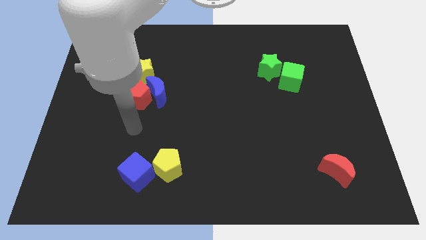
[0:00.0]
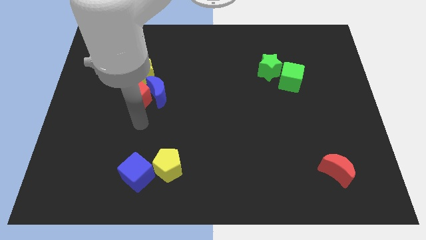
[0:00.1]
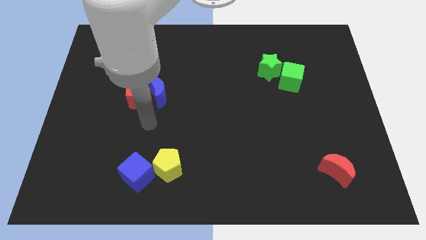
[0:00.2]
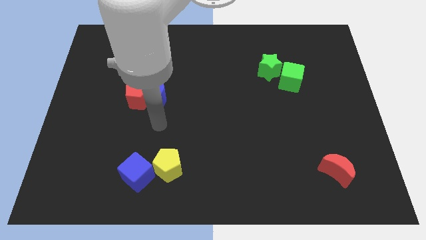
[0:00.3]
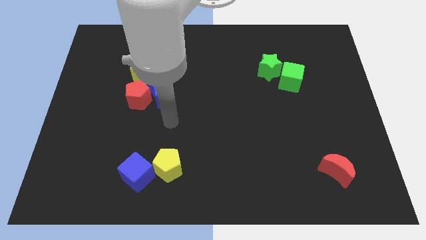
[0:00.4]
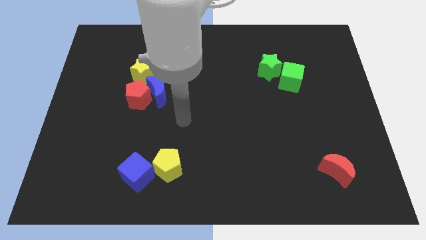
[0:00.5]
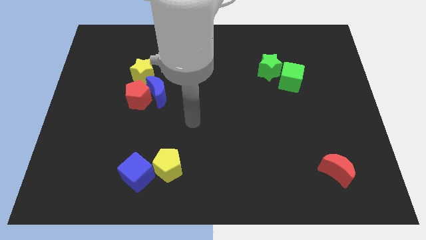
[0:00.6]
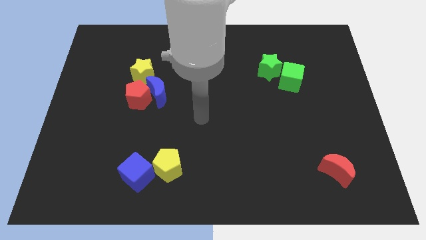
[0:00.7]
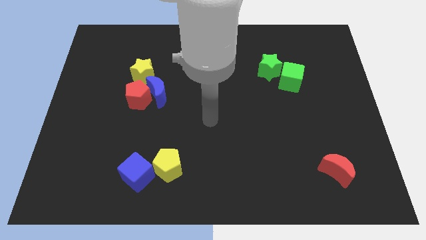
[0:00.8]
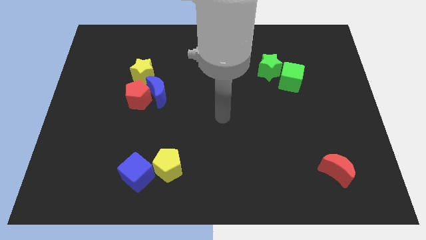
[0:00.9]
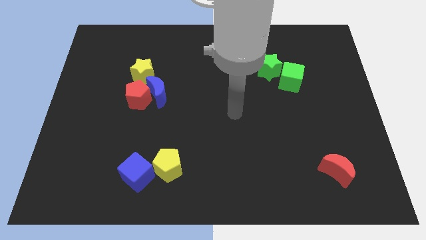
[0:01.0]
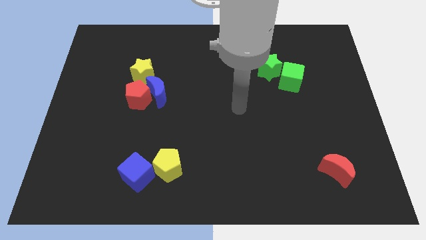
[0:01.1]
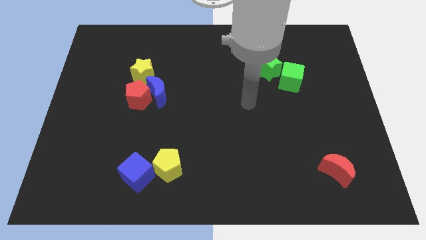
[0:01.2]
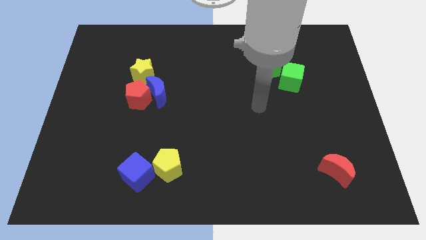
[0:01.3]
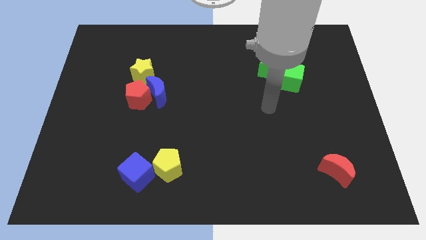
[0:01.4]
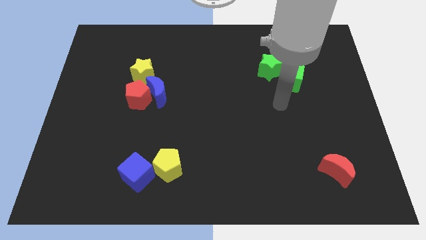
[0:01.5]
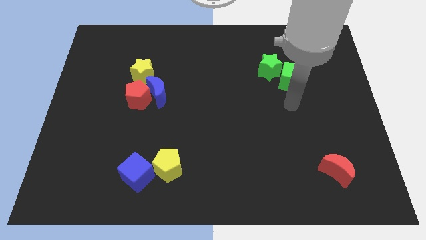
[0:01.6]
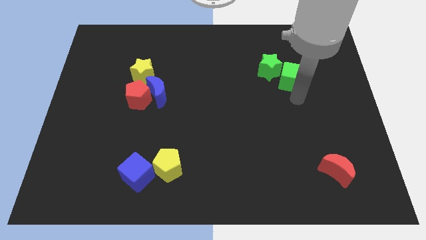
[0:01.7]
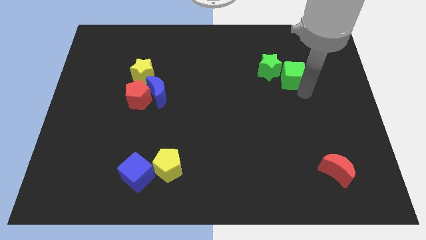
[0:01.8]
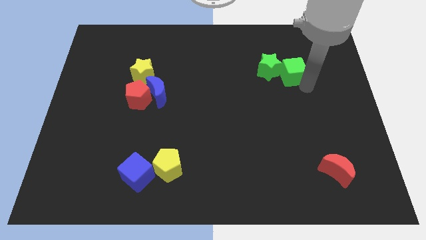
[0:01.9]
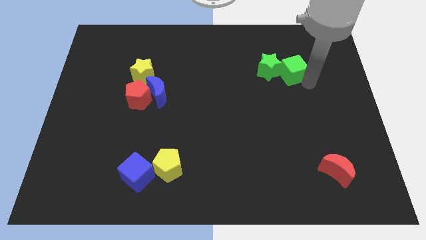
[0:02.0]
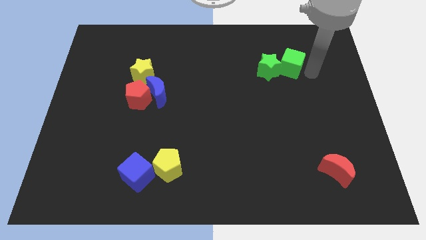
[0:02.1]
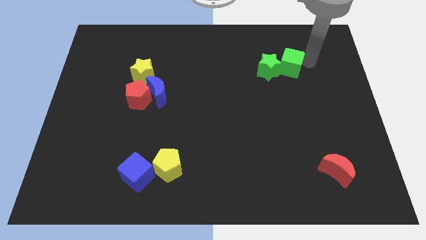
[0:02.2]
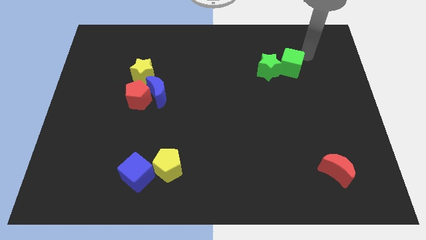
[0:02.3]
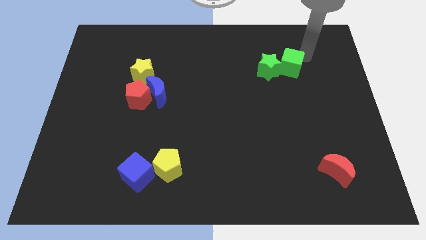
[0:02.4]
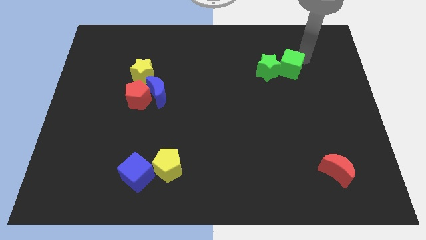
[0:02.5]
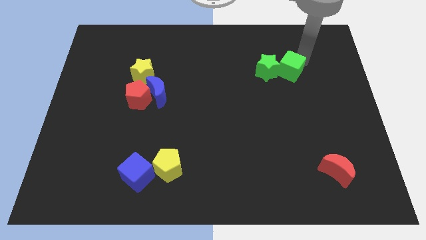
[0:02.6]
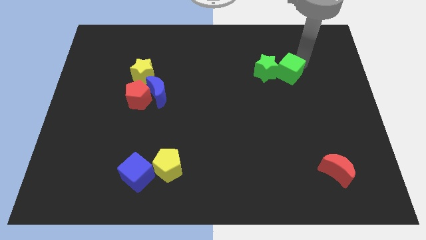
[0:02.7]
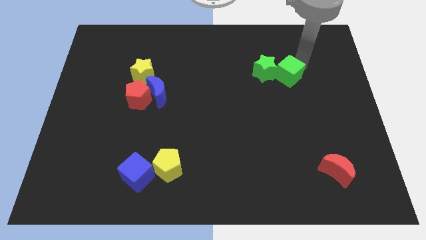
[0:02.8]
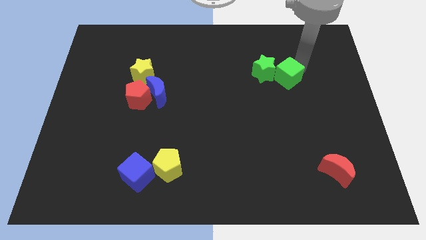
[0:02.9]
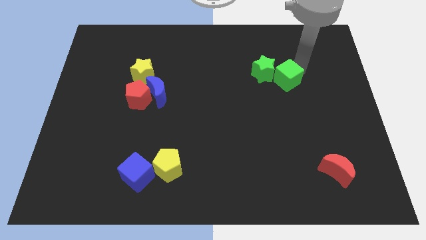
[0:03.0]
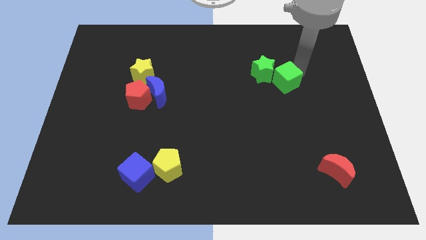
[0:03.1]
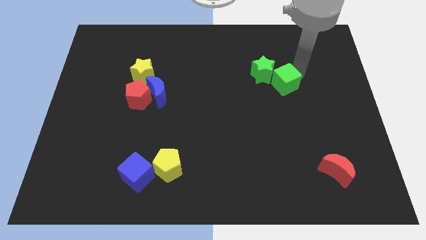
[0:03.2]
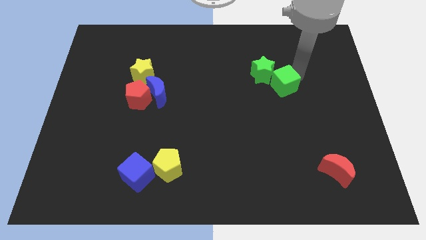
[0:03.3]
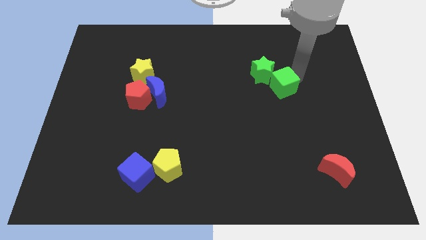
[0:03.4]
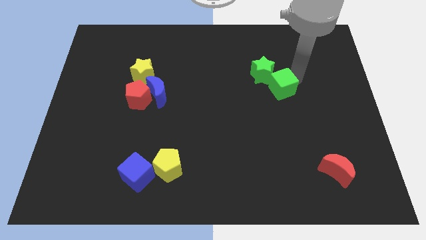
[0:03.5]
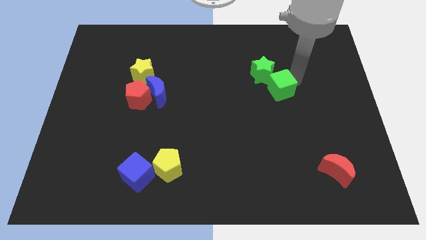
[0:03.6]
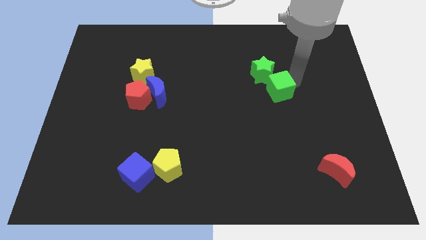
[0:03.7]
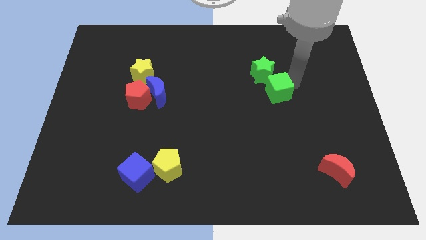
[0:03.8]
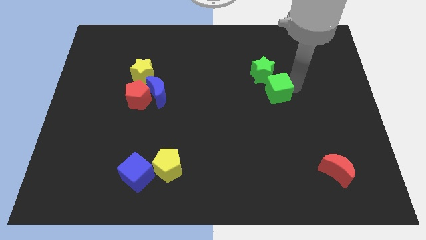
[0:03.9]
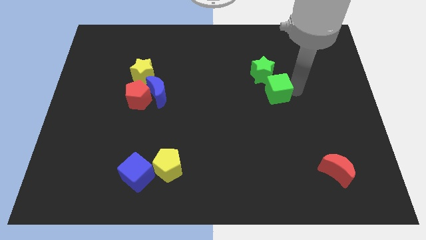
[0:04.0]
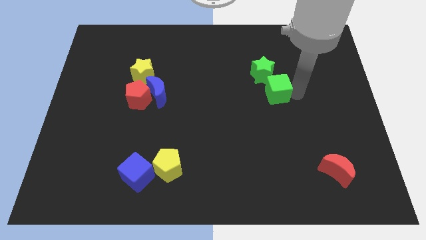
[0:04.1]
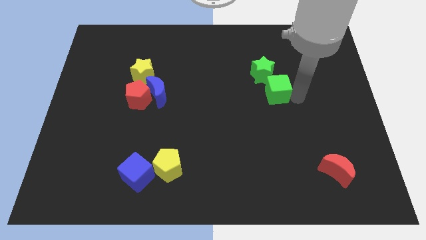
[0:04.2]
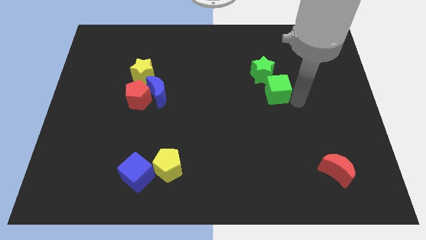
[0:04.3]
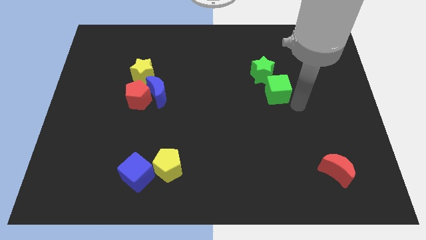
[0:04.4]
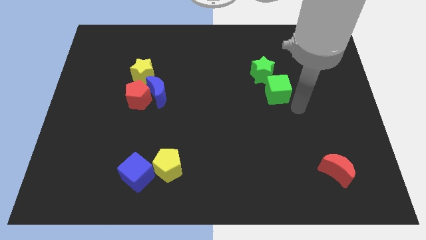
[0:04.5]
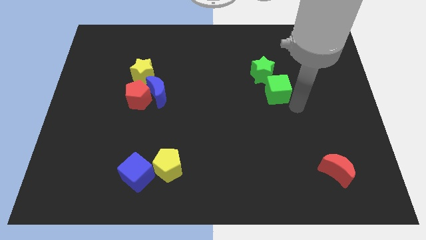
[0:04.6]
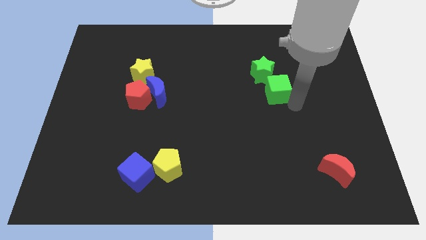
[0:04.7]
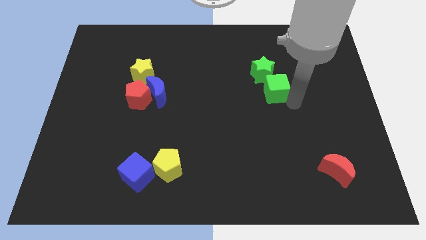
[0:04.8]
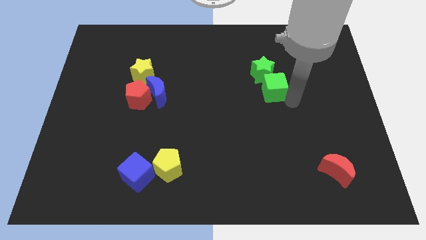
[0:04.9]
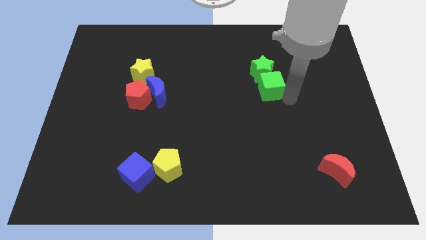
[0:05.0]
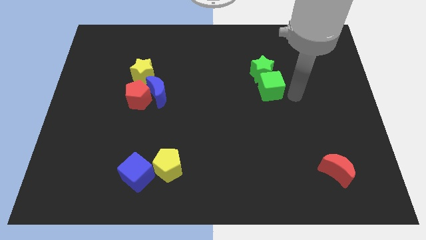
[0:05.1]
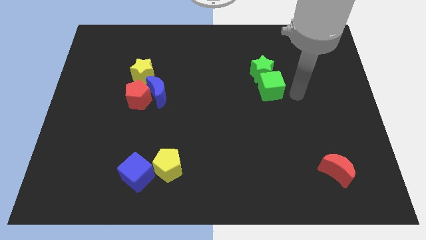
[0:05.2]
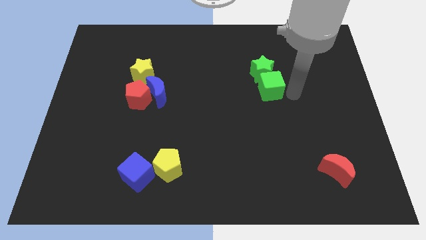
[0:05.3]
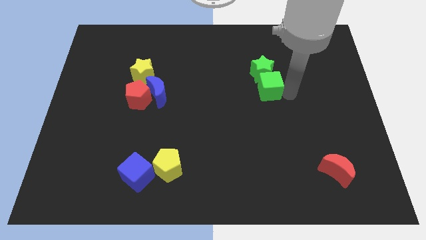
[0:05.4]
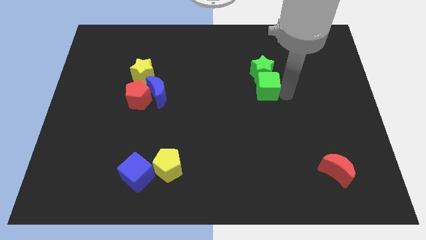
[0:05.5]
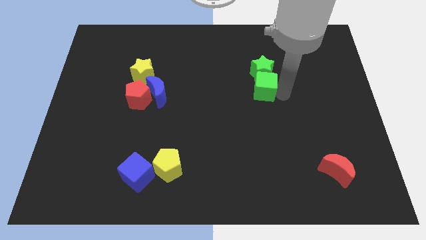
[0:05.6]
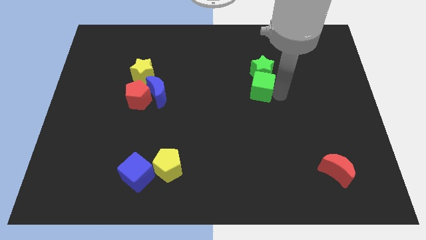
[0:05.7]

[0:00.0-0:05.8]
slightly push the green cube to the left

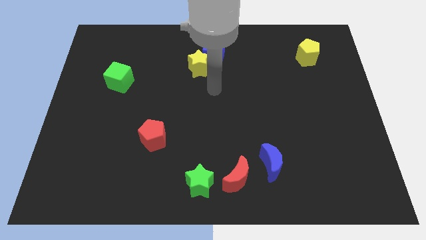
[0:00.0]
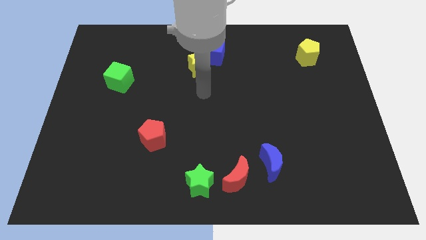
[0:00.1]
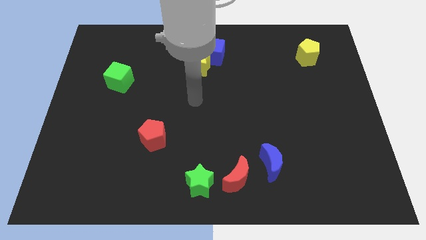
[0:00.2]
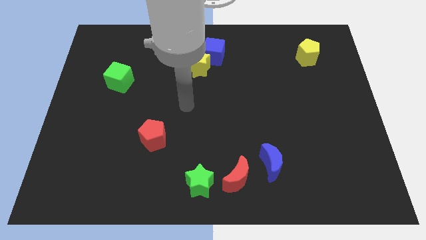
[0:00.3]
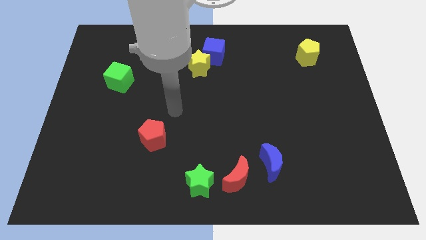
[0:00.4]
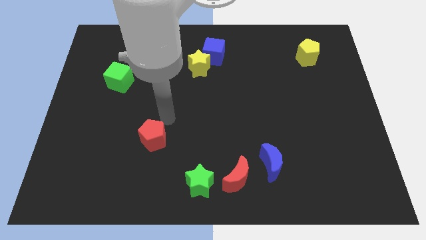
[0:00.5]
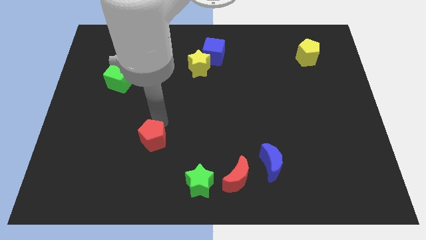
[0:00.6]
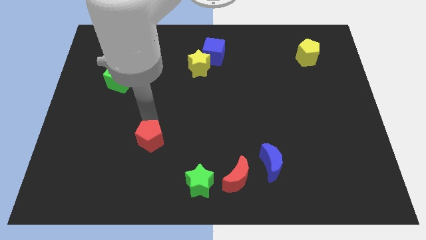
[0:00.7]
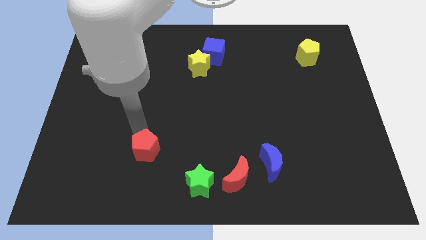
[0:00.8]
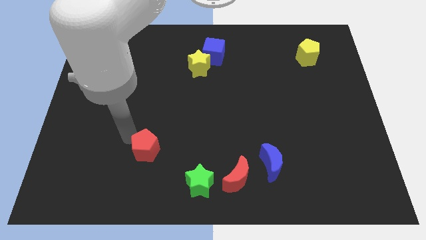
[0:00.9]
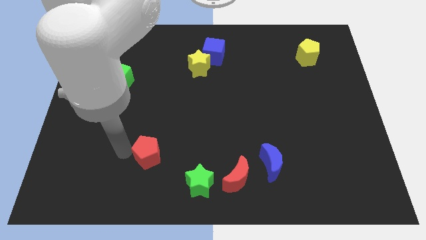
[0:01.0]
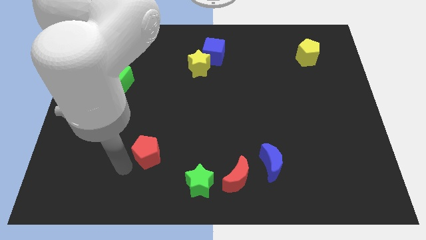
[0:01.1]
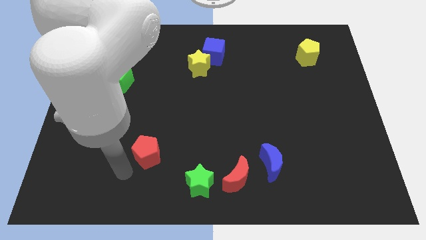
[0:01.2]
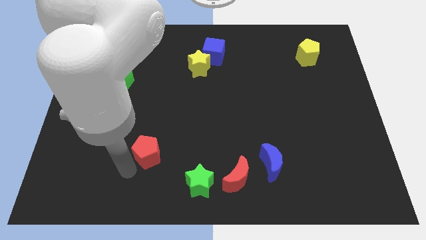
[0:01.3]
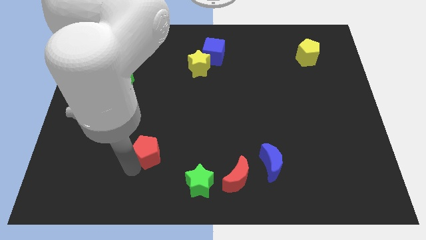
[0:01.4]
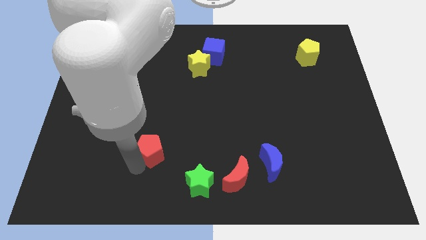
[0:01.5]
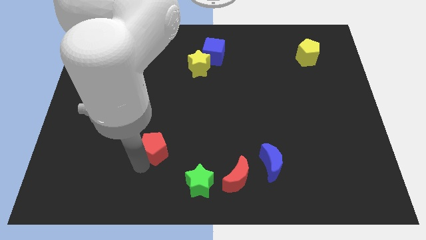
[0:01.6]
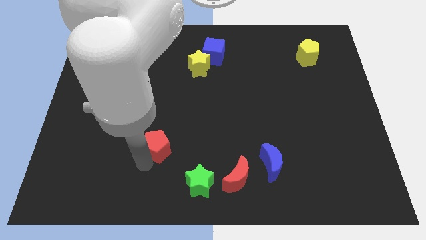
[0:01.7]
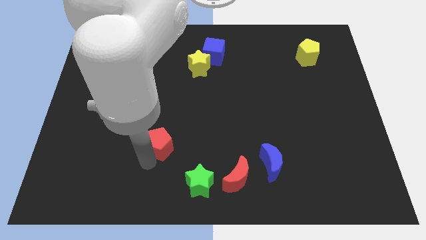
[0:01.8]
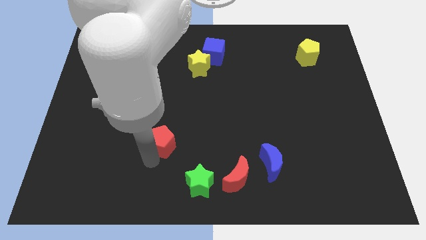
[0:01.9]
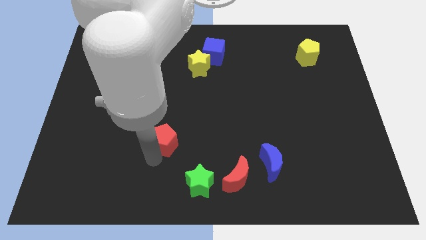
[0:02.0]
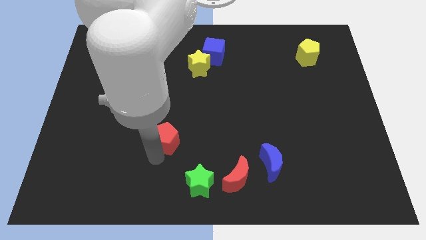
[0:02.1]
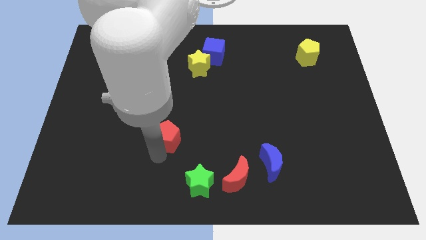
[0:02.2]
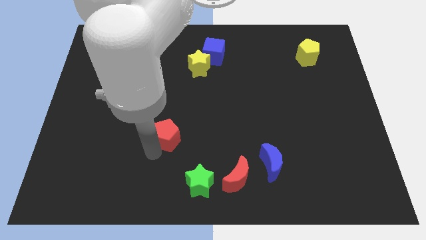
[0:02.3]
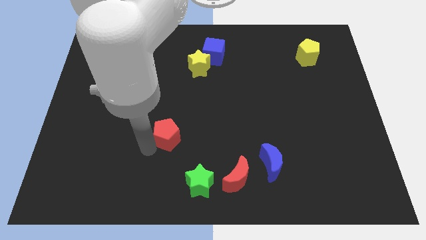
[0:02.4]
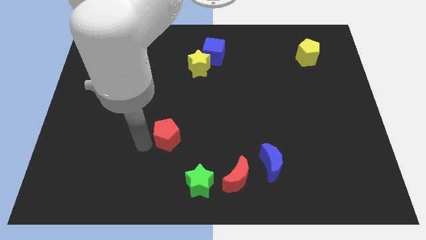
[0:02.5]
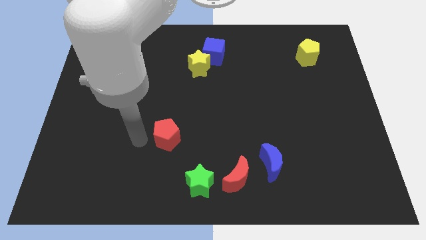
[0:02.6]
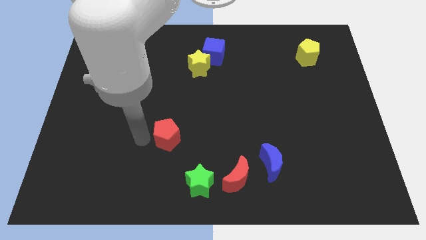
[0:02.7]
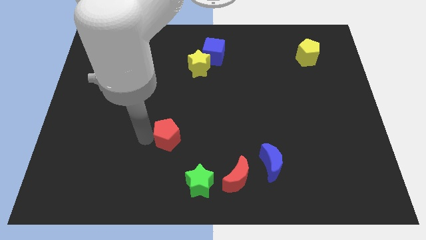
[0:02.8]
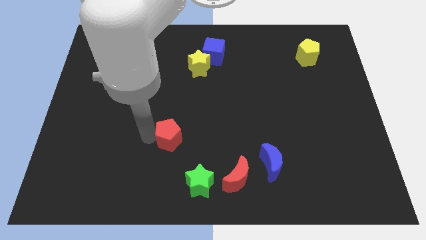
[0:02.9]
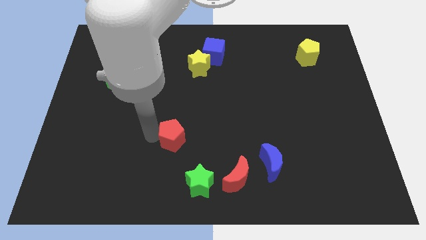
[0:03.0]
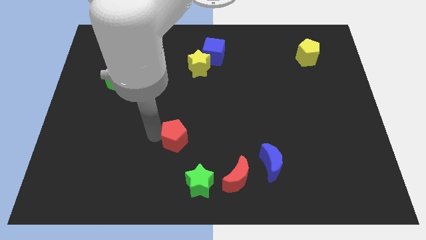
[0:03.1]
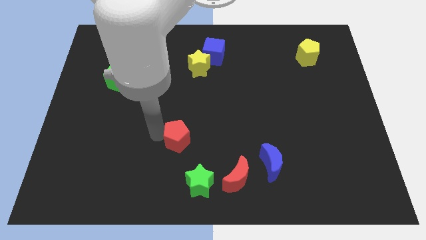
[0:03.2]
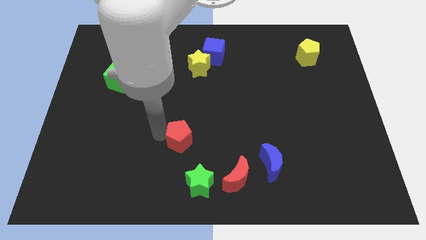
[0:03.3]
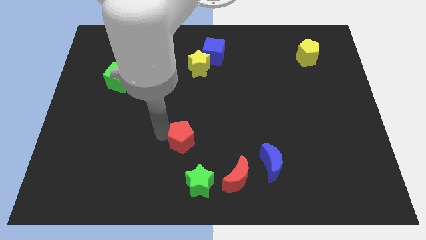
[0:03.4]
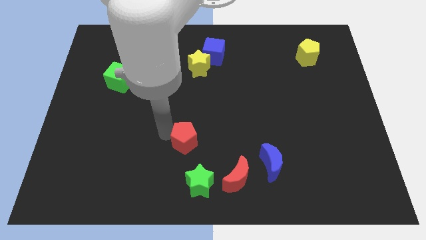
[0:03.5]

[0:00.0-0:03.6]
push the red pentagon somewhat to the right
